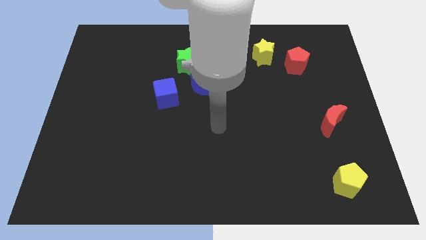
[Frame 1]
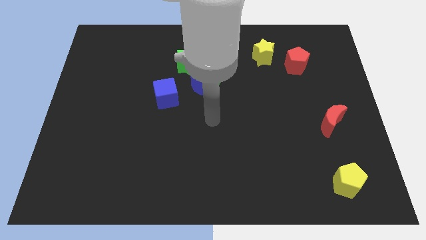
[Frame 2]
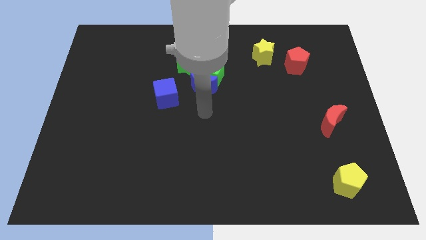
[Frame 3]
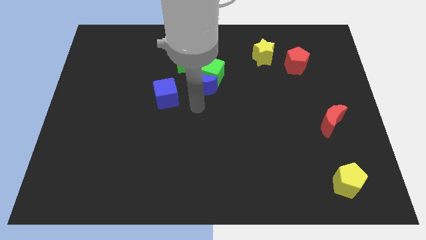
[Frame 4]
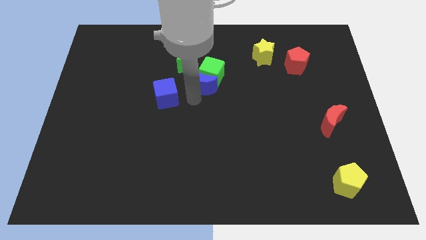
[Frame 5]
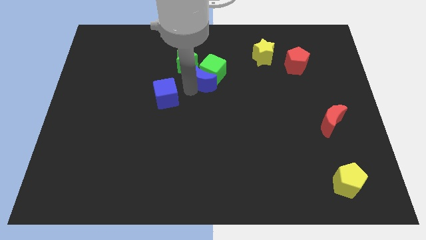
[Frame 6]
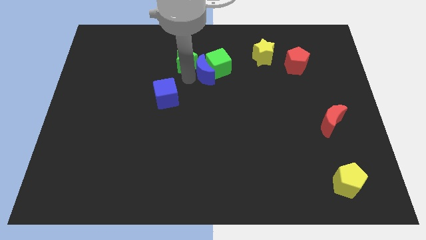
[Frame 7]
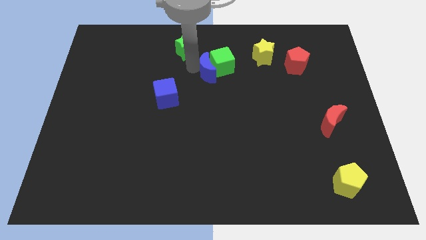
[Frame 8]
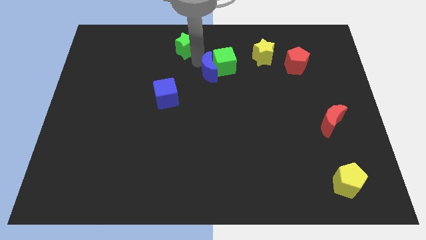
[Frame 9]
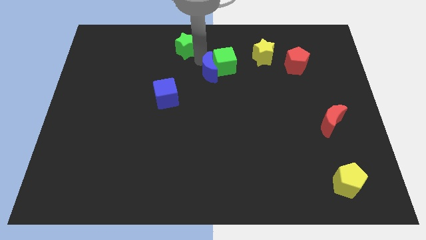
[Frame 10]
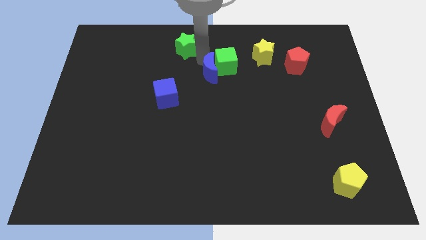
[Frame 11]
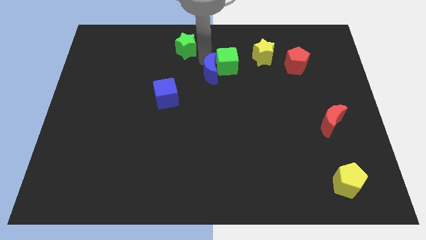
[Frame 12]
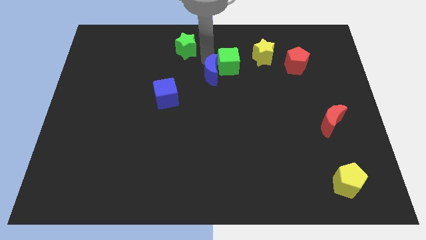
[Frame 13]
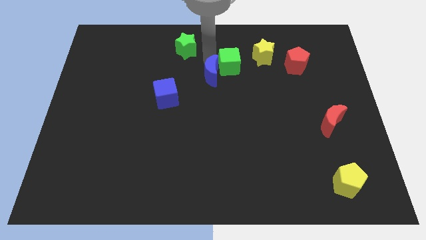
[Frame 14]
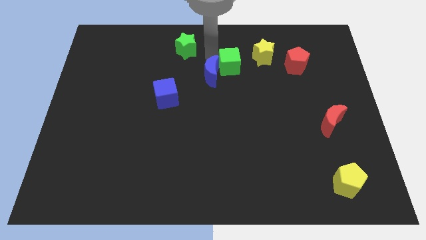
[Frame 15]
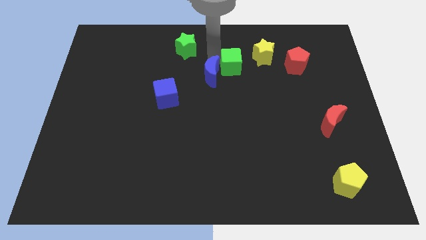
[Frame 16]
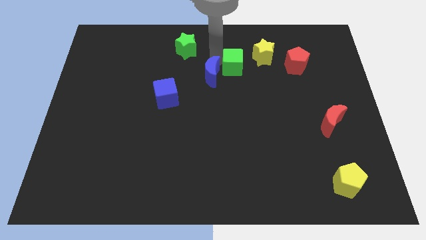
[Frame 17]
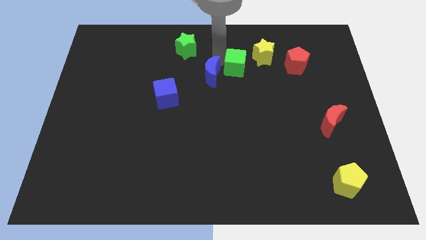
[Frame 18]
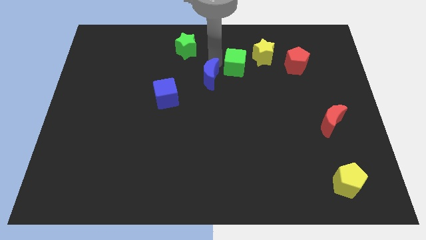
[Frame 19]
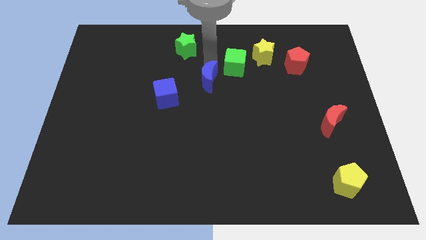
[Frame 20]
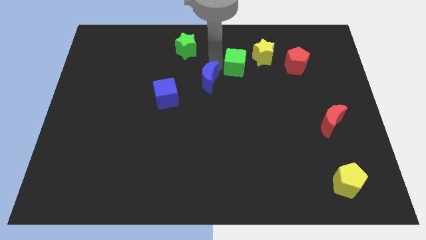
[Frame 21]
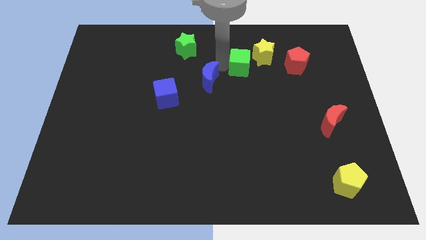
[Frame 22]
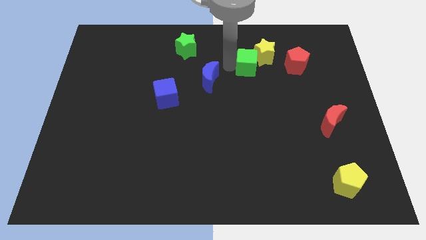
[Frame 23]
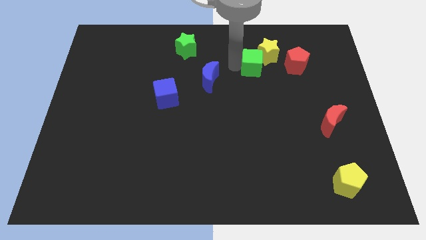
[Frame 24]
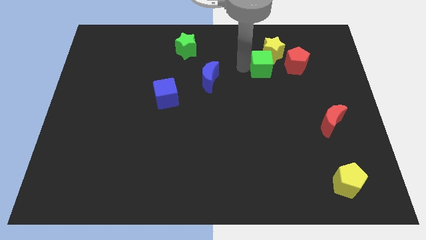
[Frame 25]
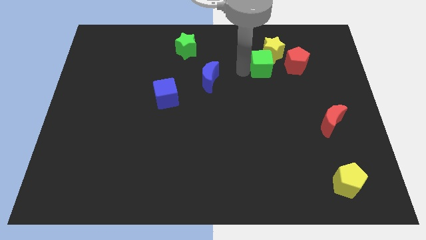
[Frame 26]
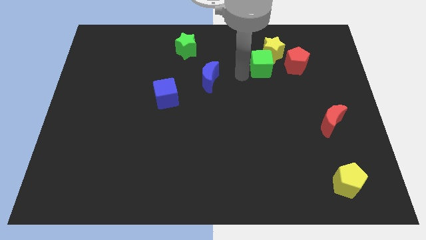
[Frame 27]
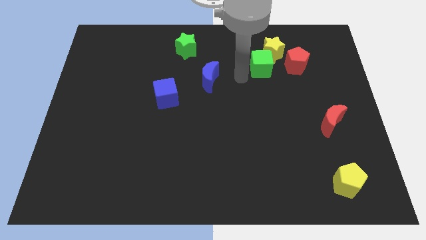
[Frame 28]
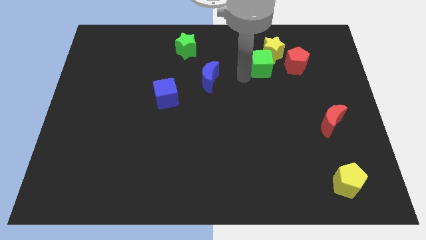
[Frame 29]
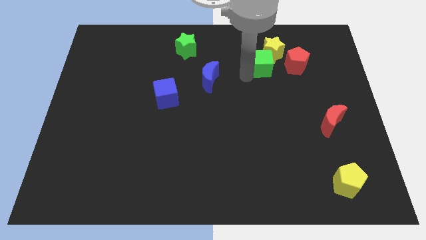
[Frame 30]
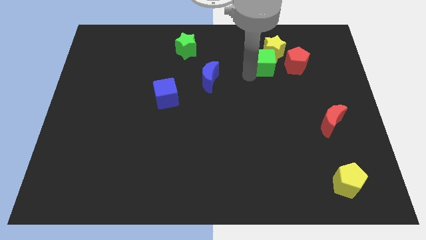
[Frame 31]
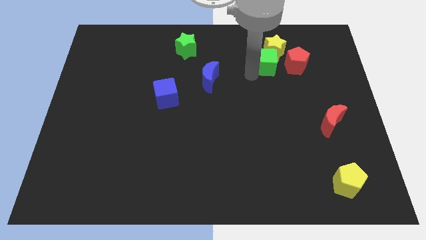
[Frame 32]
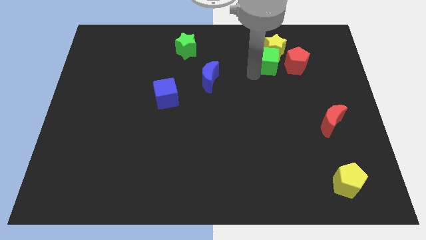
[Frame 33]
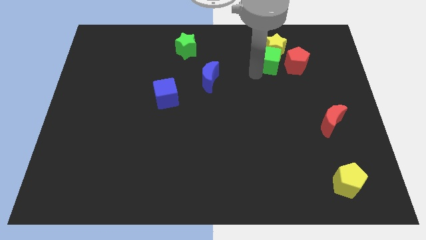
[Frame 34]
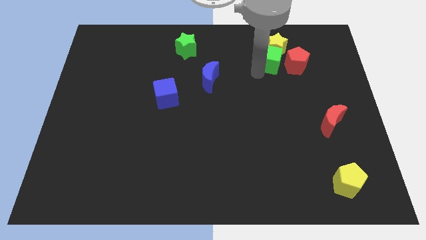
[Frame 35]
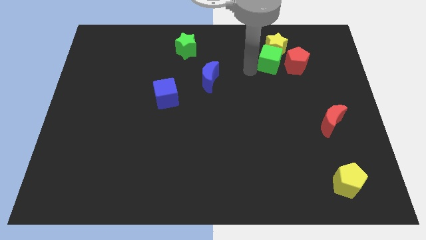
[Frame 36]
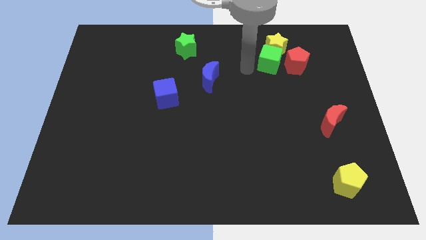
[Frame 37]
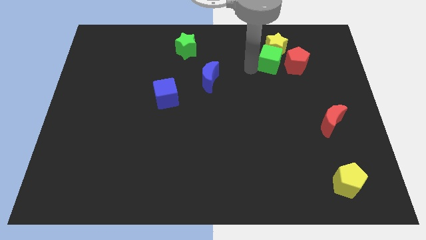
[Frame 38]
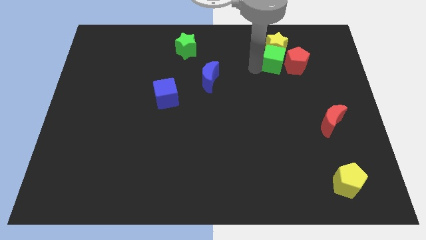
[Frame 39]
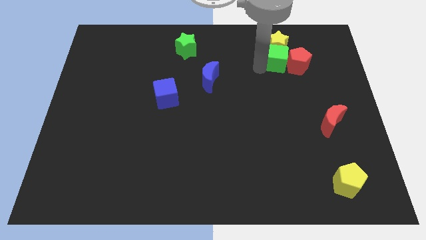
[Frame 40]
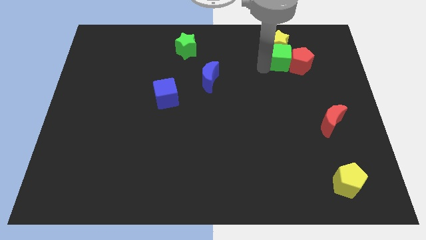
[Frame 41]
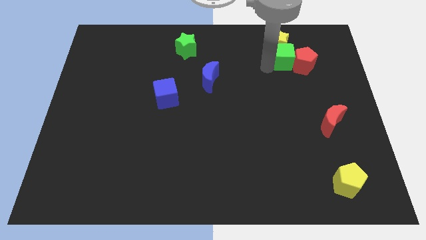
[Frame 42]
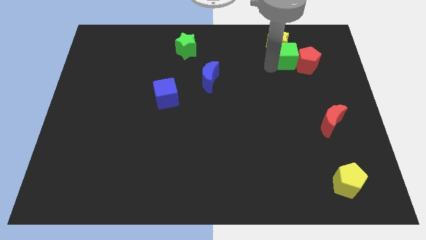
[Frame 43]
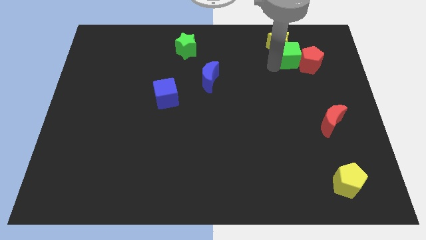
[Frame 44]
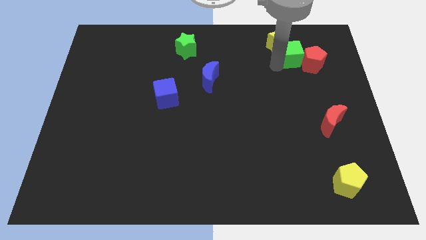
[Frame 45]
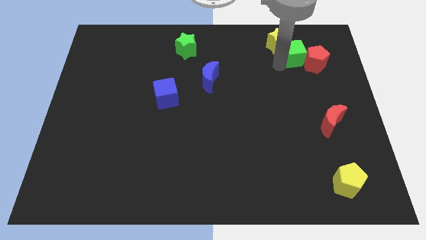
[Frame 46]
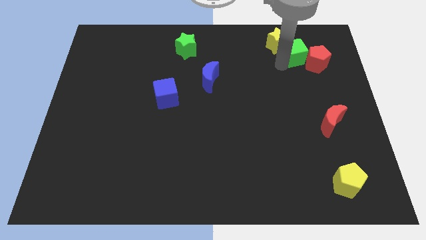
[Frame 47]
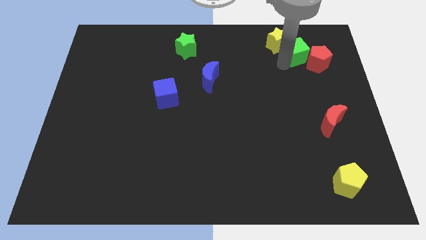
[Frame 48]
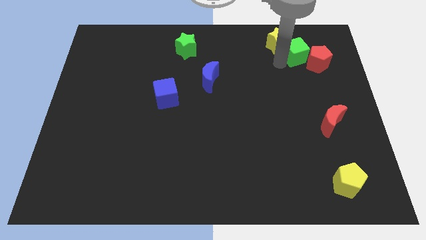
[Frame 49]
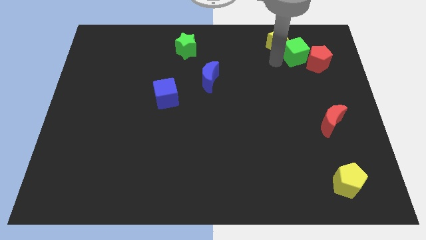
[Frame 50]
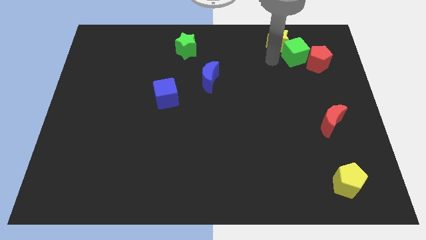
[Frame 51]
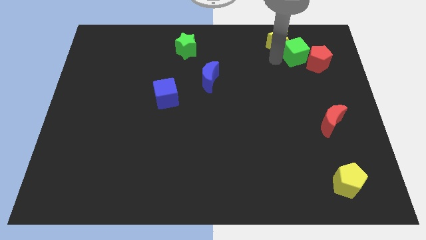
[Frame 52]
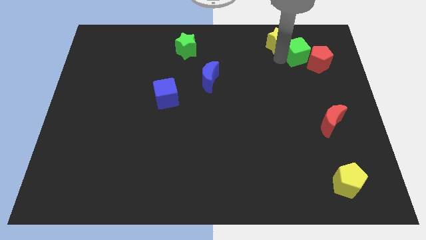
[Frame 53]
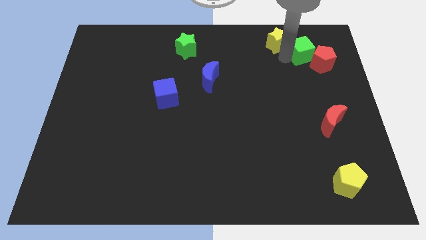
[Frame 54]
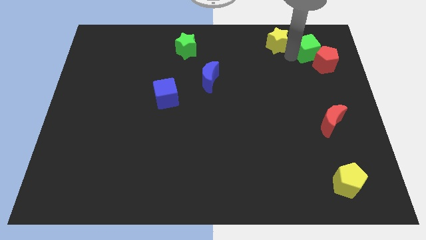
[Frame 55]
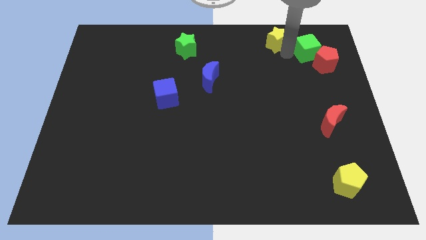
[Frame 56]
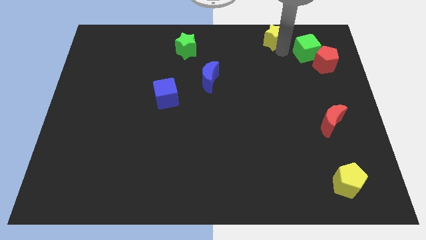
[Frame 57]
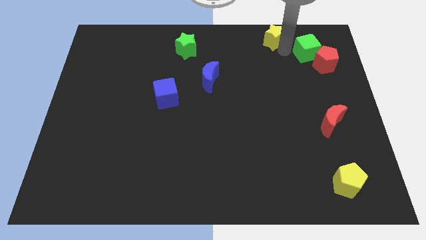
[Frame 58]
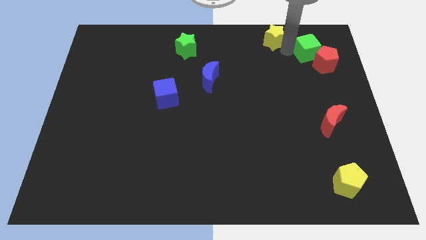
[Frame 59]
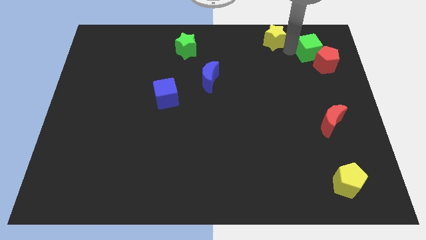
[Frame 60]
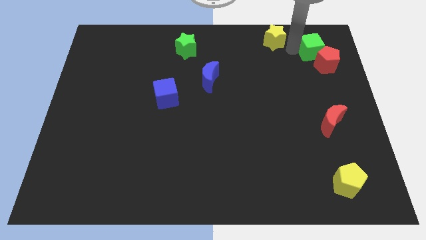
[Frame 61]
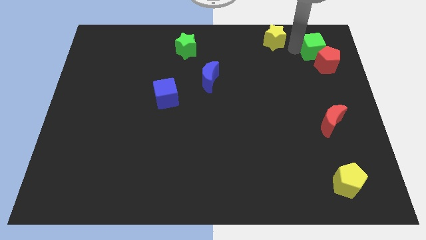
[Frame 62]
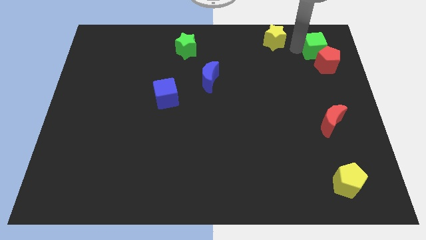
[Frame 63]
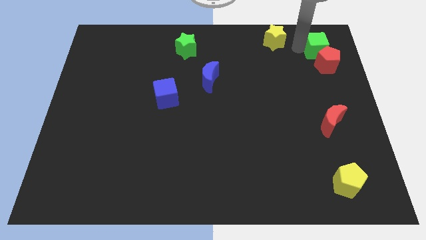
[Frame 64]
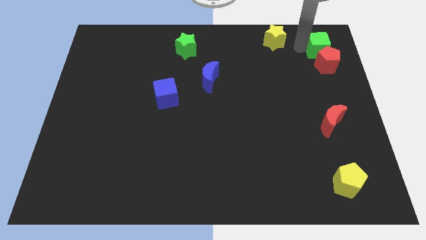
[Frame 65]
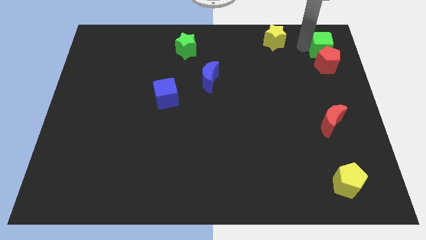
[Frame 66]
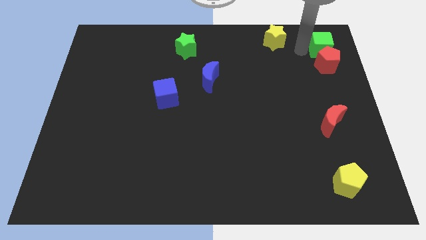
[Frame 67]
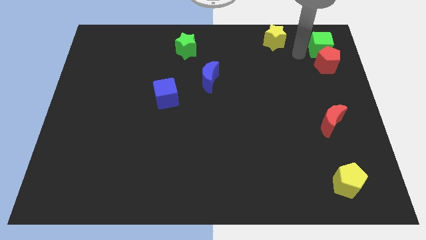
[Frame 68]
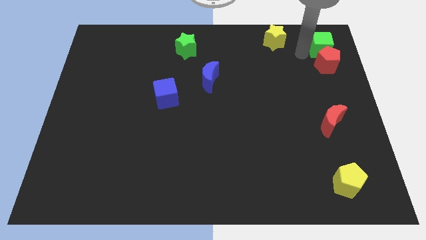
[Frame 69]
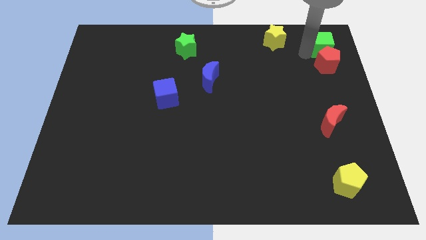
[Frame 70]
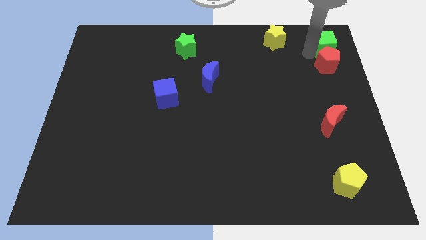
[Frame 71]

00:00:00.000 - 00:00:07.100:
push the green cube to the top right

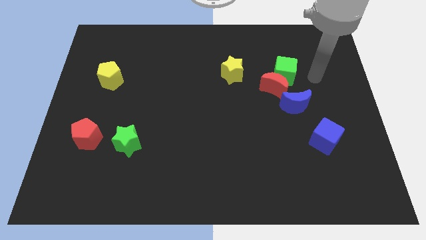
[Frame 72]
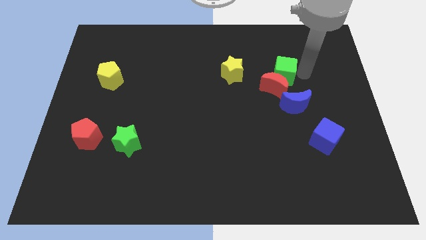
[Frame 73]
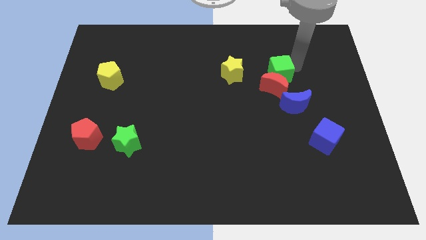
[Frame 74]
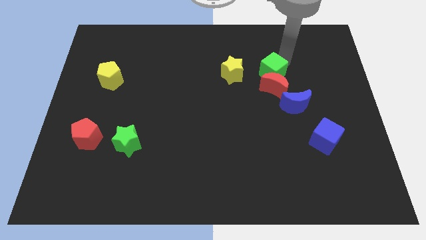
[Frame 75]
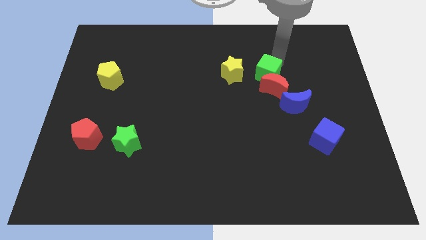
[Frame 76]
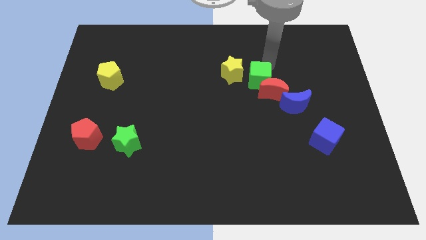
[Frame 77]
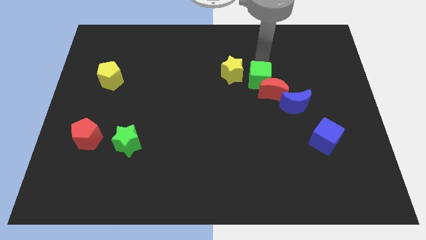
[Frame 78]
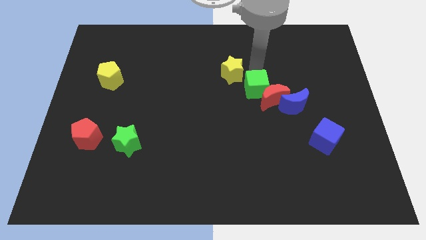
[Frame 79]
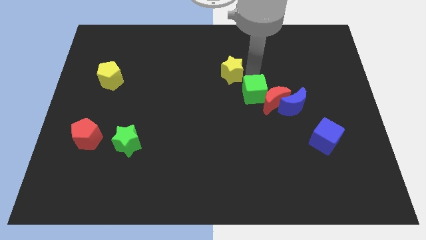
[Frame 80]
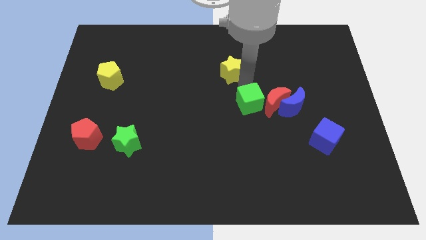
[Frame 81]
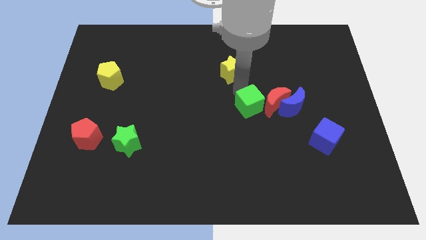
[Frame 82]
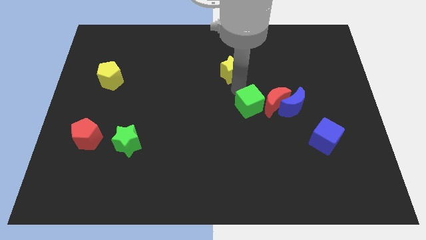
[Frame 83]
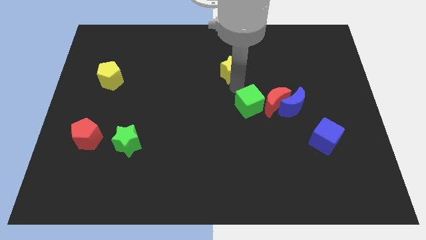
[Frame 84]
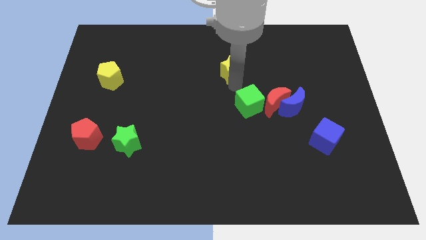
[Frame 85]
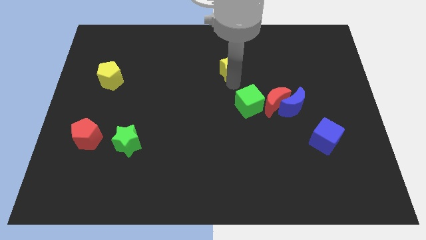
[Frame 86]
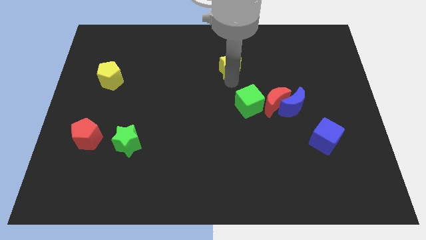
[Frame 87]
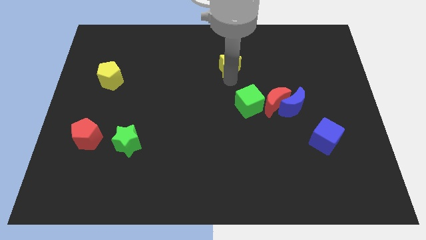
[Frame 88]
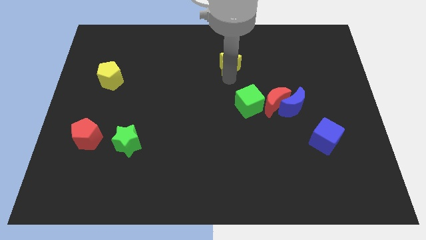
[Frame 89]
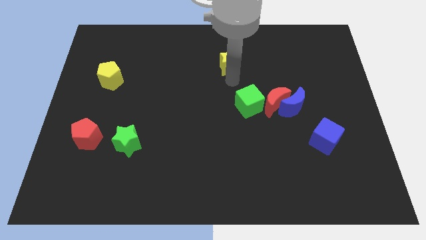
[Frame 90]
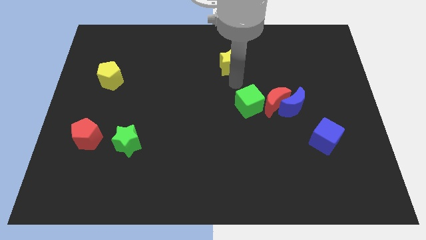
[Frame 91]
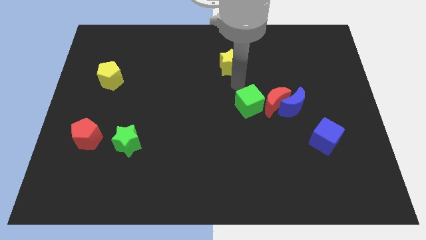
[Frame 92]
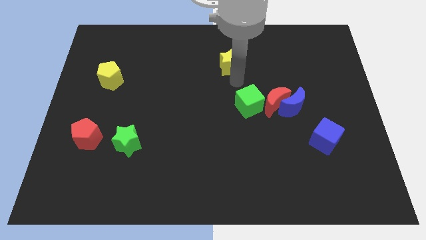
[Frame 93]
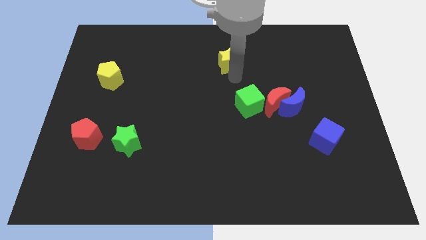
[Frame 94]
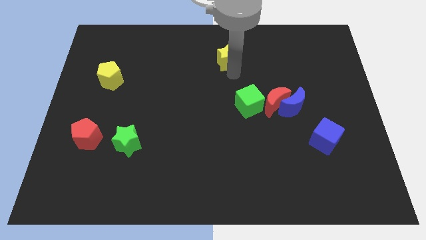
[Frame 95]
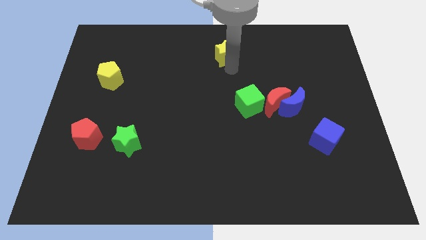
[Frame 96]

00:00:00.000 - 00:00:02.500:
push the yellow star to the towards your base
